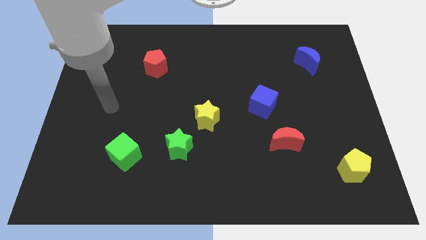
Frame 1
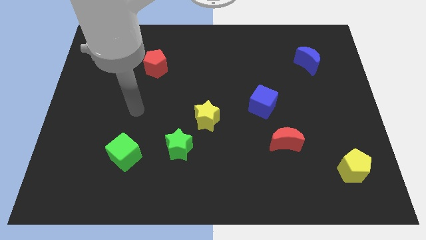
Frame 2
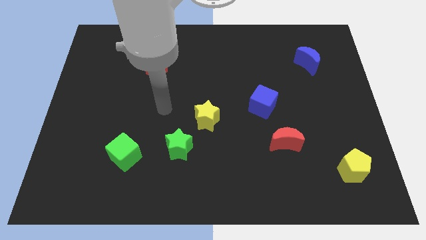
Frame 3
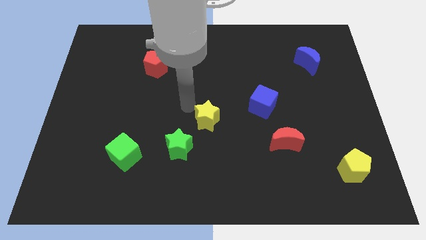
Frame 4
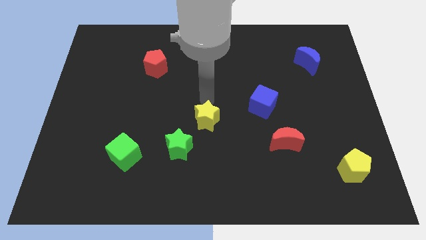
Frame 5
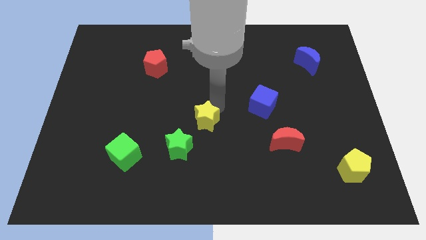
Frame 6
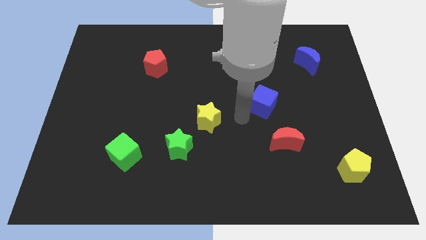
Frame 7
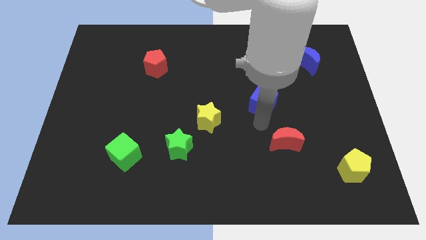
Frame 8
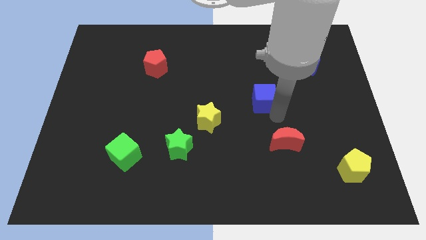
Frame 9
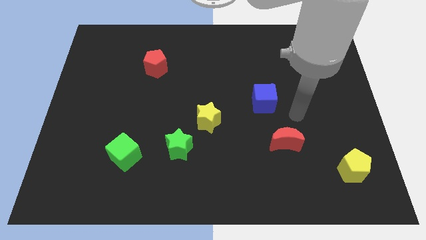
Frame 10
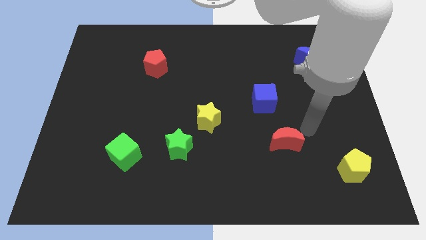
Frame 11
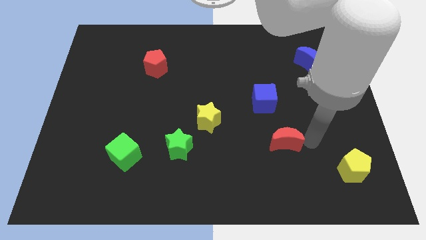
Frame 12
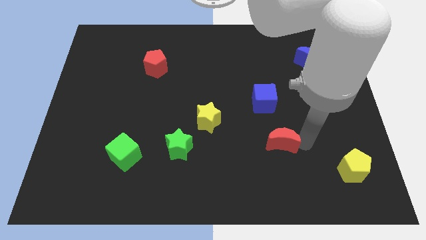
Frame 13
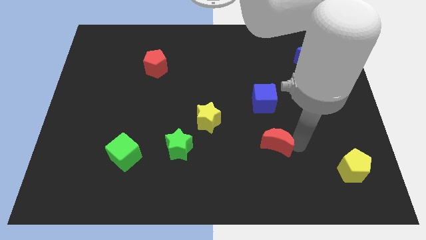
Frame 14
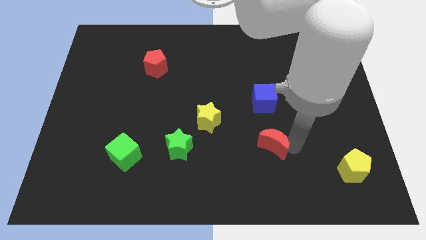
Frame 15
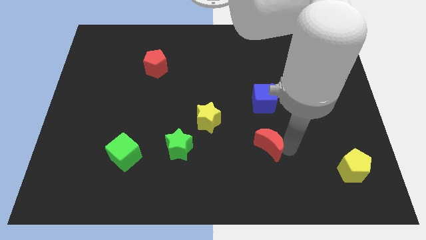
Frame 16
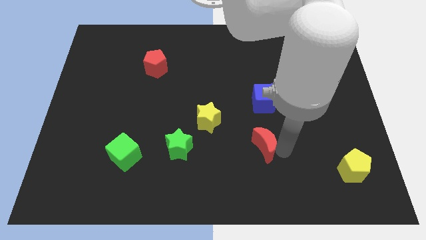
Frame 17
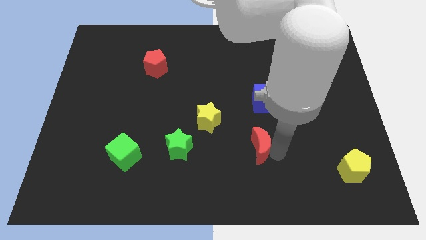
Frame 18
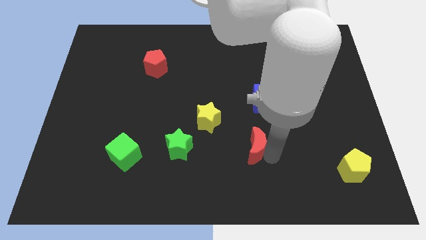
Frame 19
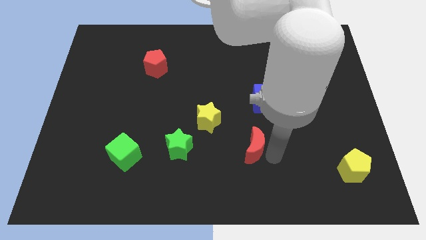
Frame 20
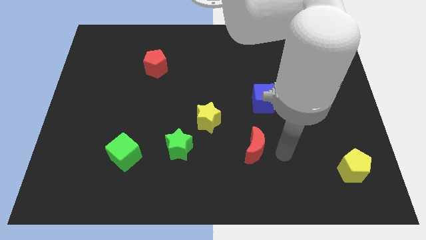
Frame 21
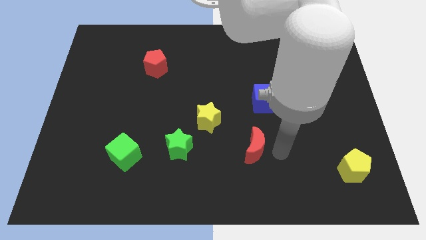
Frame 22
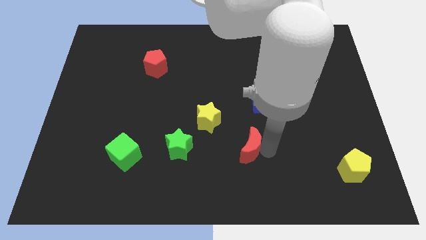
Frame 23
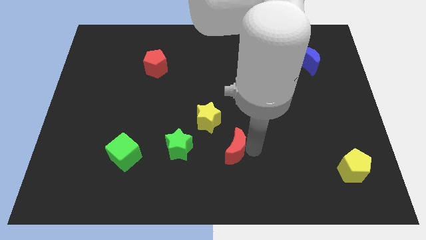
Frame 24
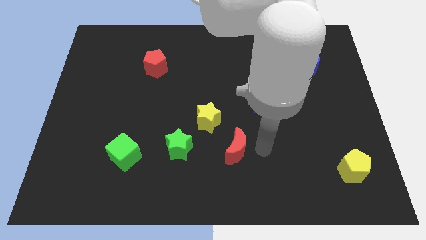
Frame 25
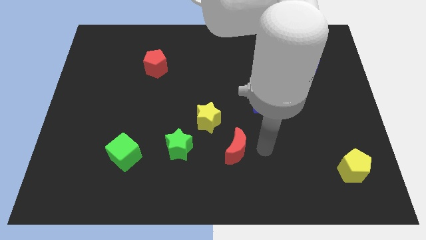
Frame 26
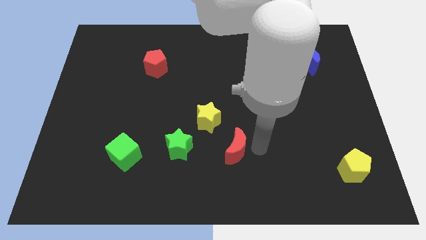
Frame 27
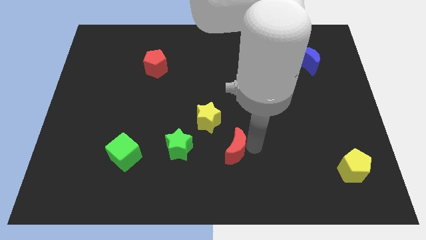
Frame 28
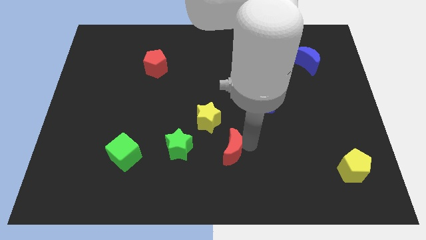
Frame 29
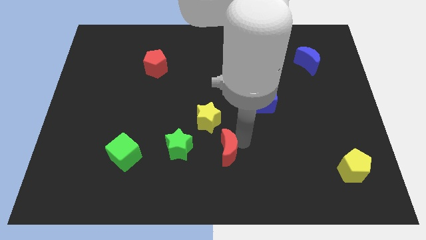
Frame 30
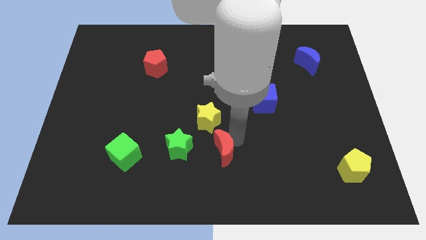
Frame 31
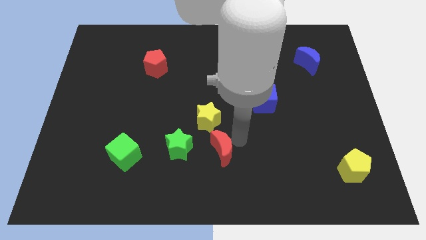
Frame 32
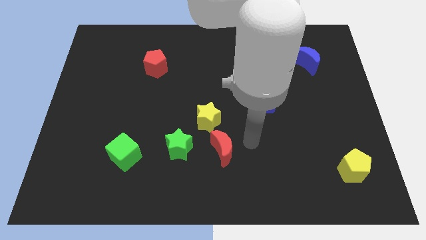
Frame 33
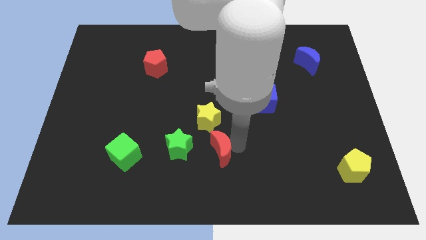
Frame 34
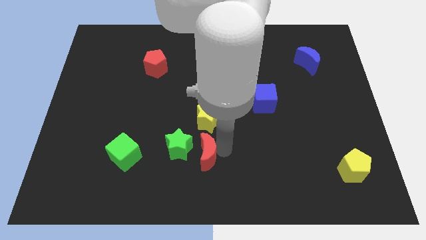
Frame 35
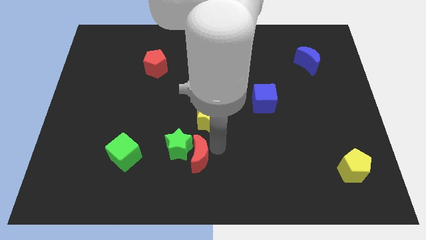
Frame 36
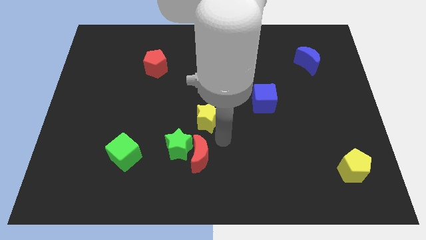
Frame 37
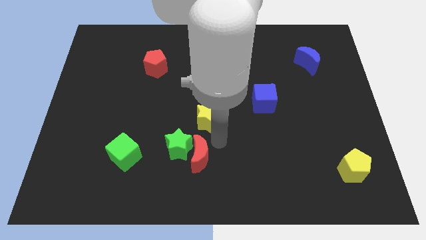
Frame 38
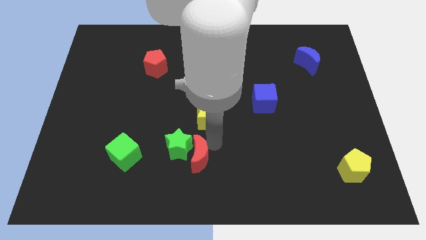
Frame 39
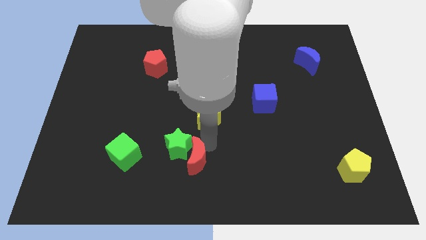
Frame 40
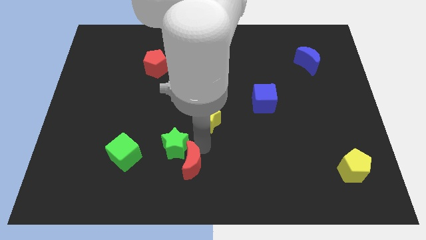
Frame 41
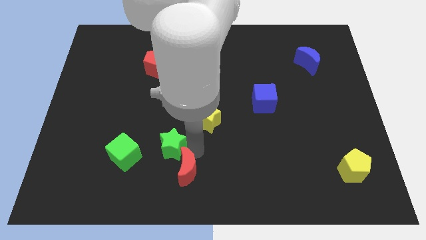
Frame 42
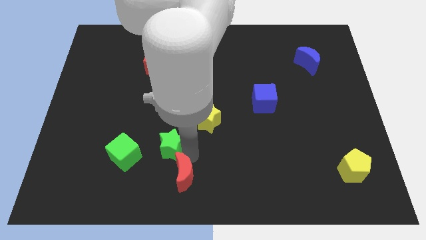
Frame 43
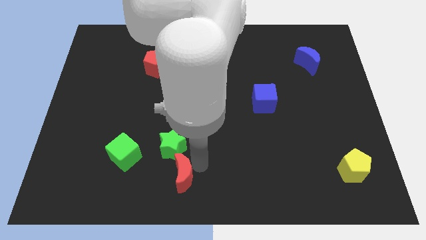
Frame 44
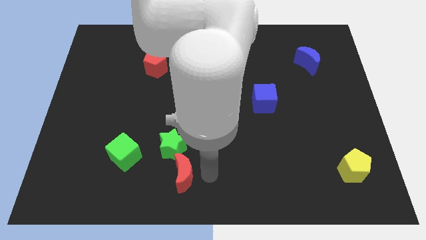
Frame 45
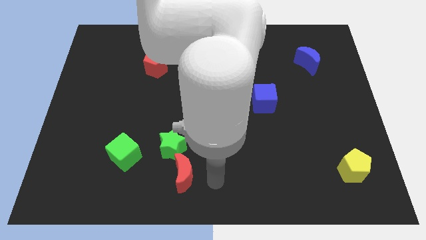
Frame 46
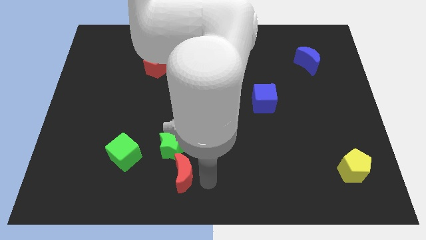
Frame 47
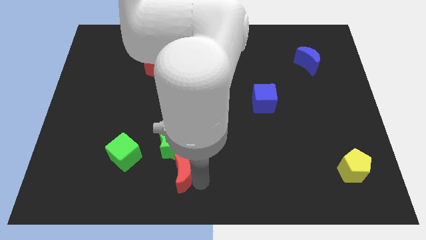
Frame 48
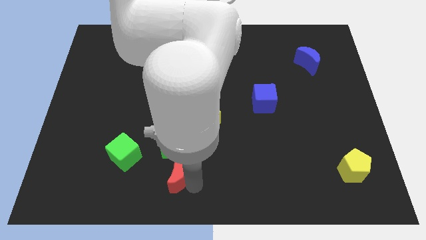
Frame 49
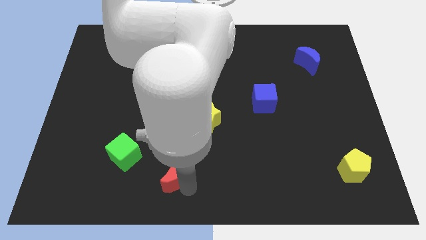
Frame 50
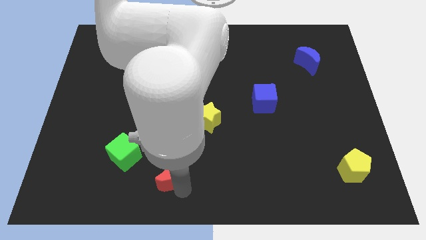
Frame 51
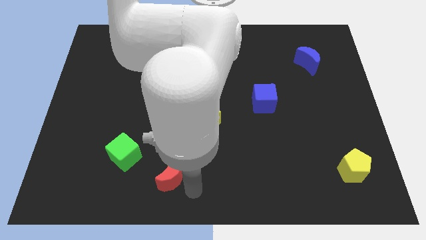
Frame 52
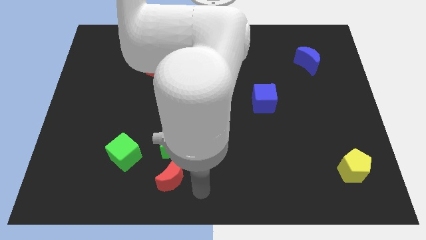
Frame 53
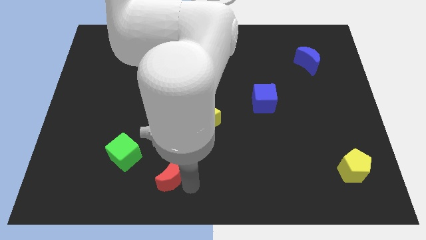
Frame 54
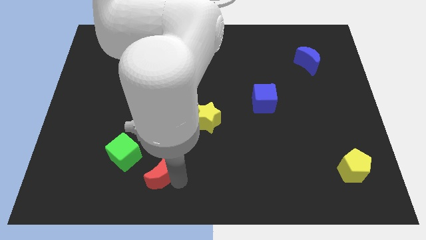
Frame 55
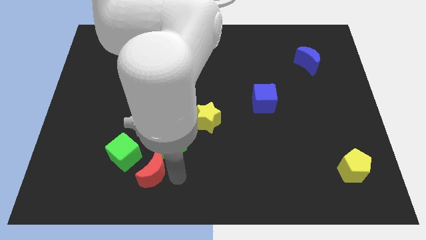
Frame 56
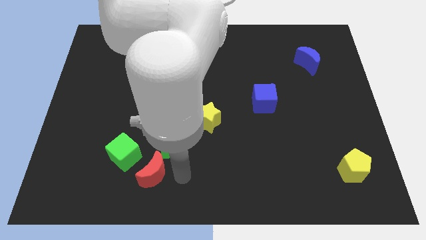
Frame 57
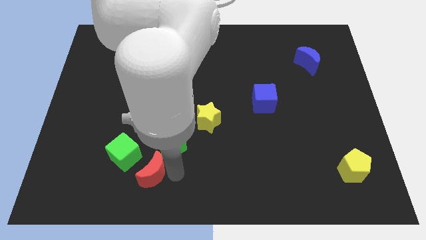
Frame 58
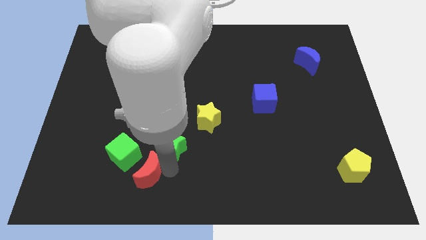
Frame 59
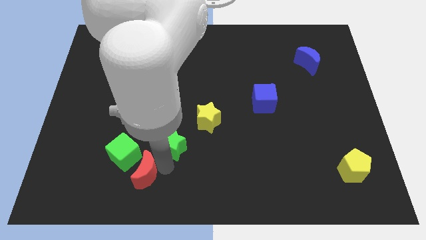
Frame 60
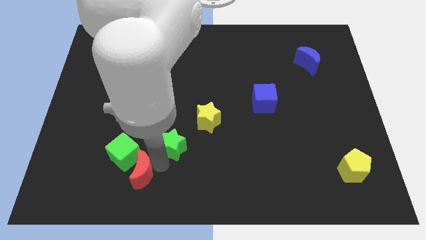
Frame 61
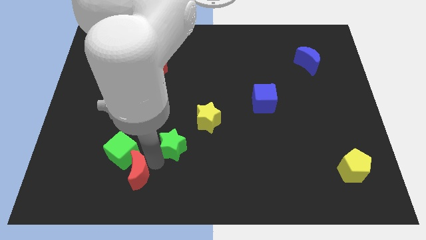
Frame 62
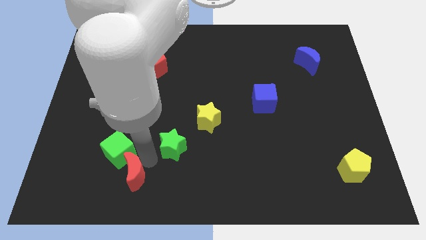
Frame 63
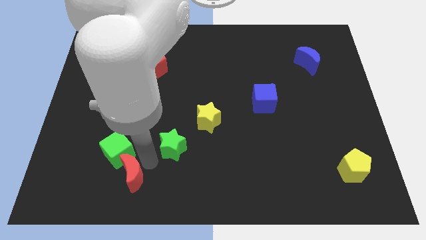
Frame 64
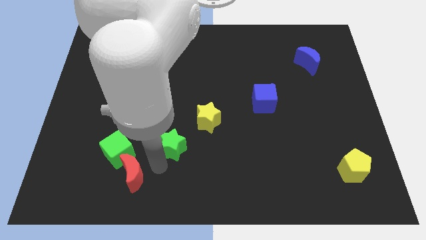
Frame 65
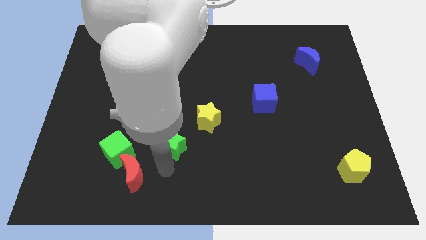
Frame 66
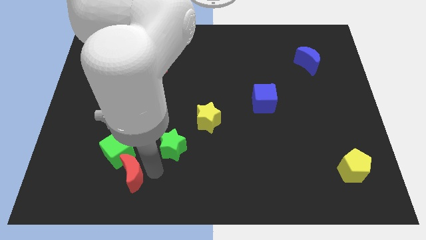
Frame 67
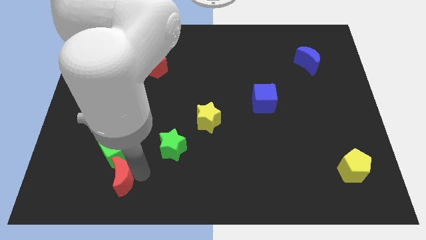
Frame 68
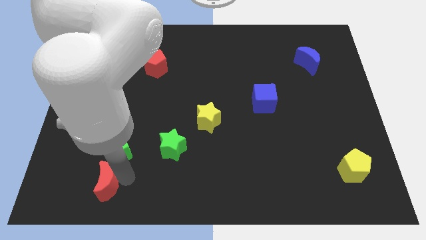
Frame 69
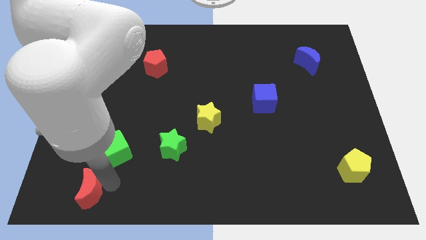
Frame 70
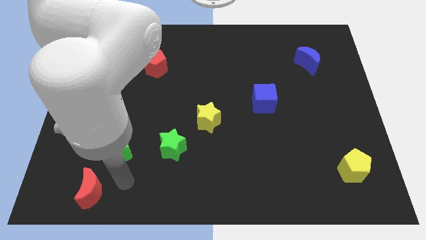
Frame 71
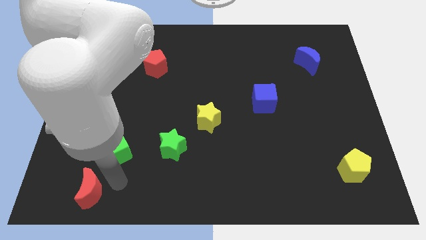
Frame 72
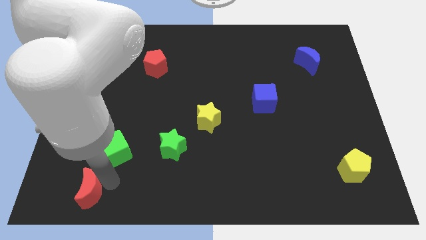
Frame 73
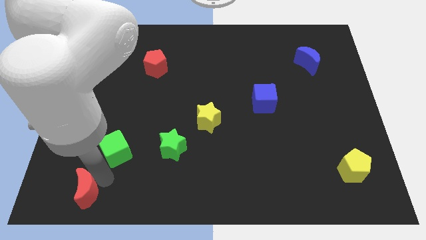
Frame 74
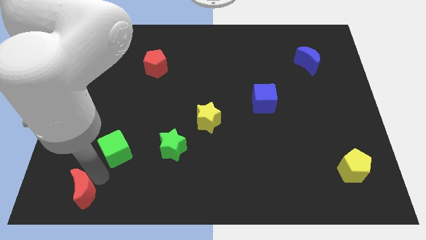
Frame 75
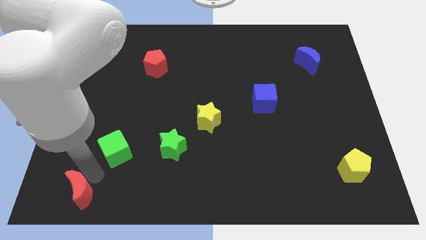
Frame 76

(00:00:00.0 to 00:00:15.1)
slide the red moon to the bottom left of the board
